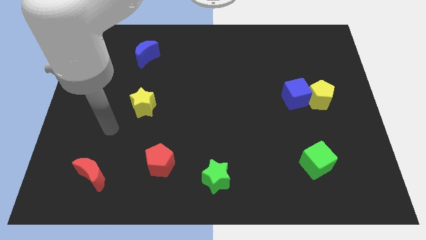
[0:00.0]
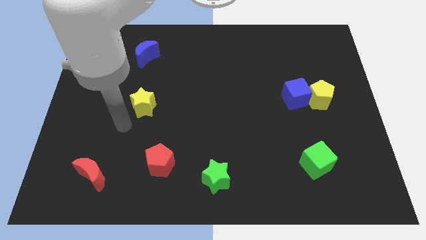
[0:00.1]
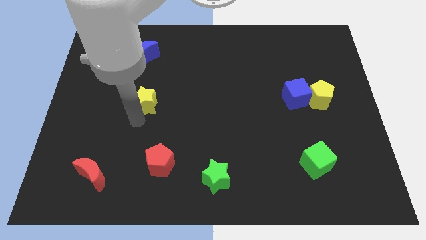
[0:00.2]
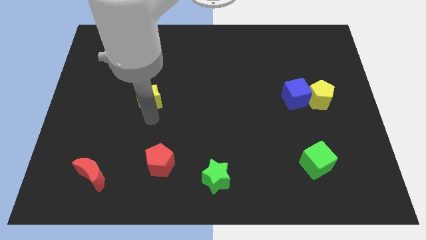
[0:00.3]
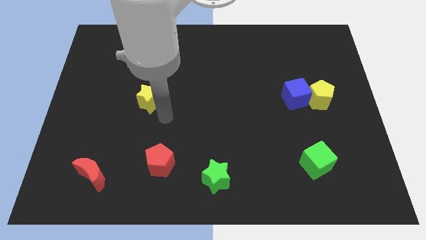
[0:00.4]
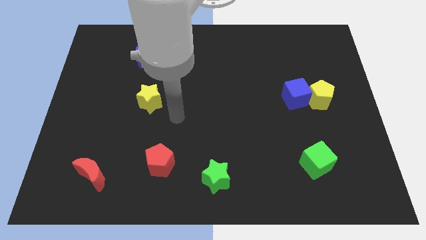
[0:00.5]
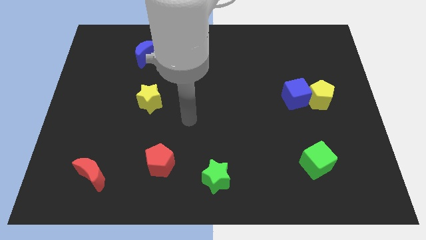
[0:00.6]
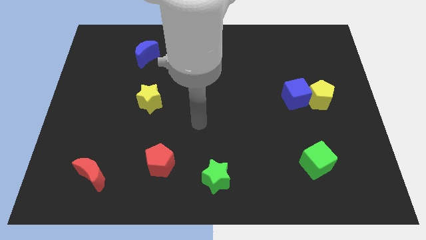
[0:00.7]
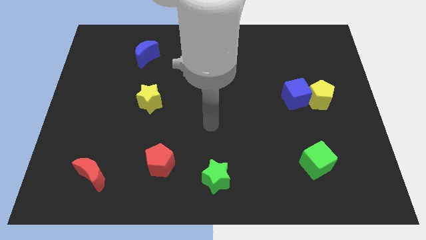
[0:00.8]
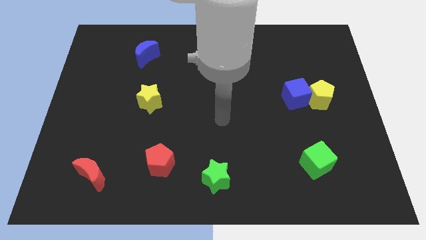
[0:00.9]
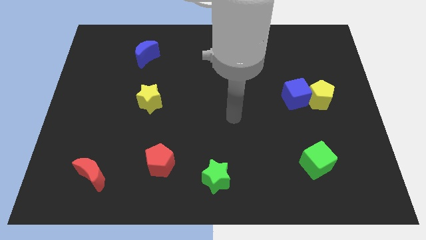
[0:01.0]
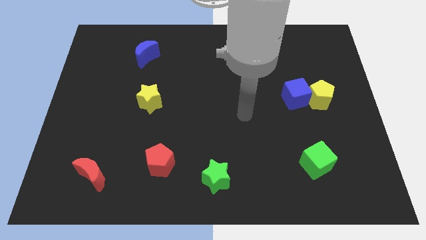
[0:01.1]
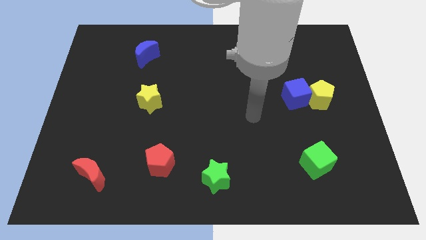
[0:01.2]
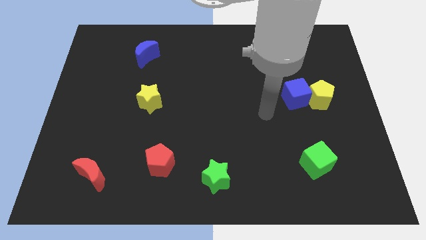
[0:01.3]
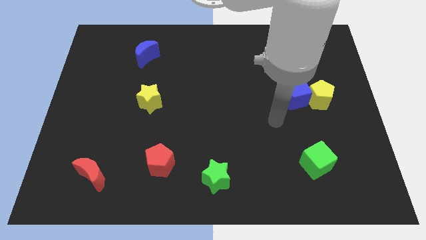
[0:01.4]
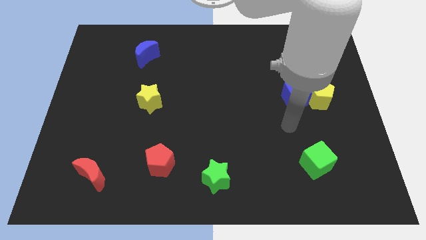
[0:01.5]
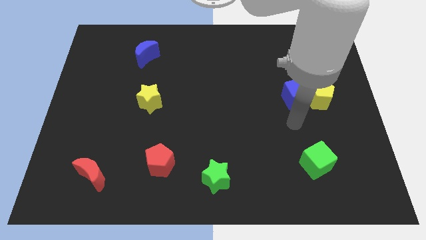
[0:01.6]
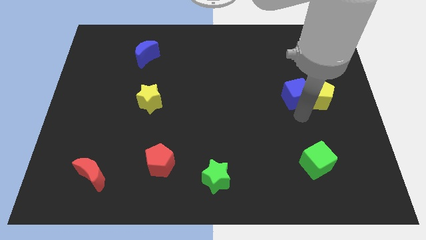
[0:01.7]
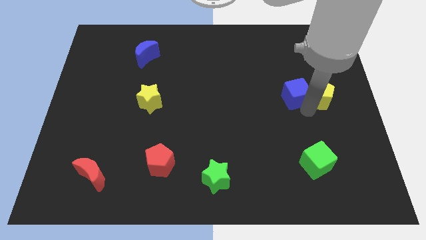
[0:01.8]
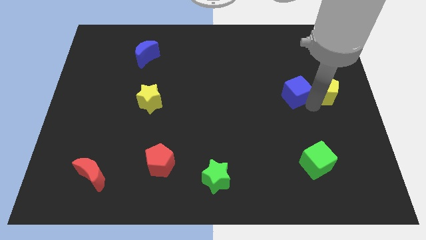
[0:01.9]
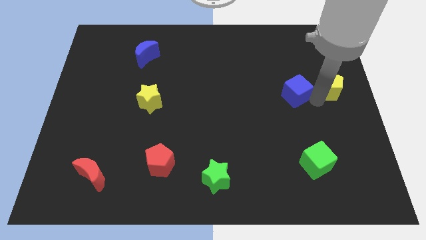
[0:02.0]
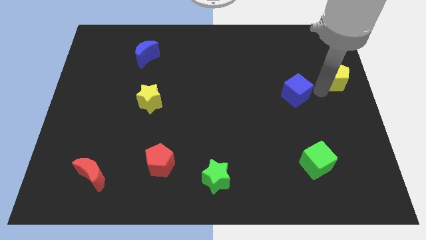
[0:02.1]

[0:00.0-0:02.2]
move the blue cube away from the yellow pentagon

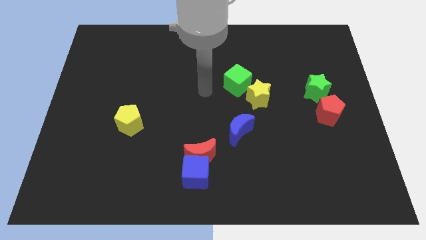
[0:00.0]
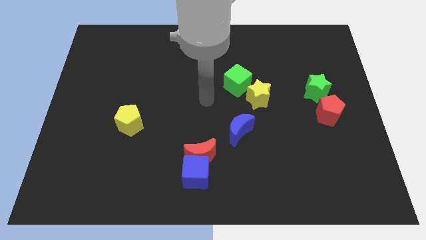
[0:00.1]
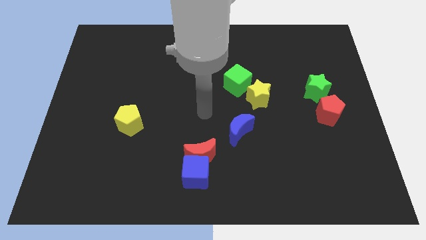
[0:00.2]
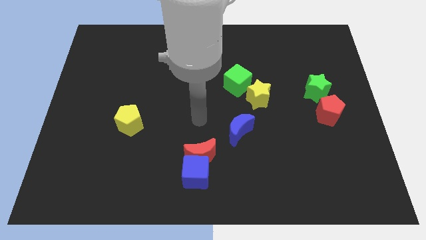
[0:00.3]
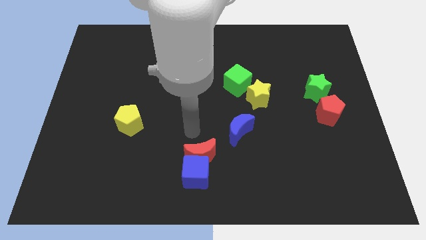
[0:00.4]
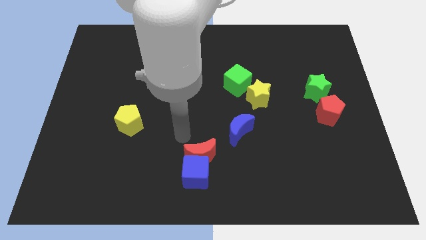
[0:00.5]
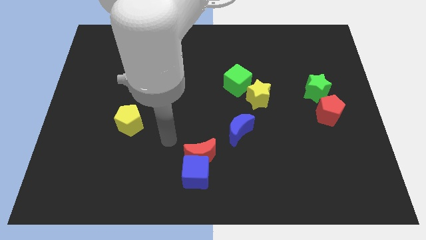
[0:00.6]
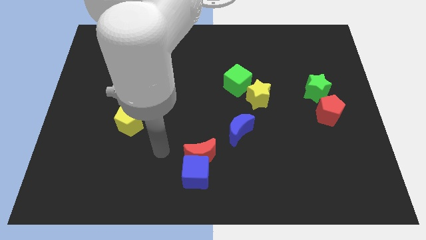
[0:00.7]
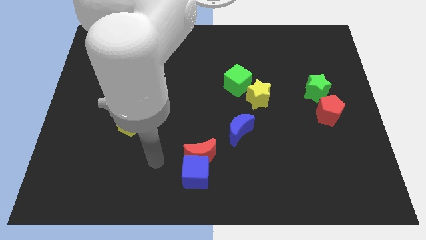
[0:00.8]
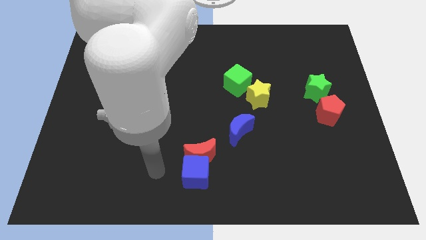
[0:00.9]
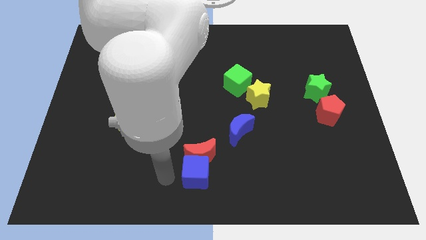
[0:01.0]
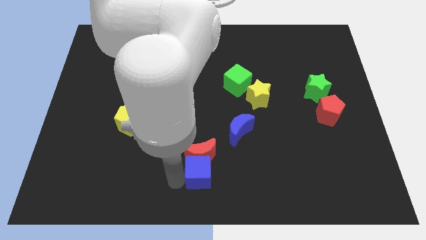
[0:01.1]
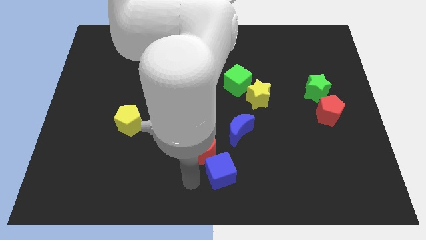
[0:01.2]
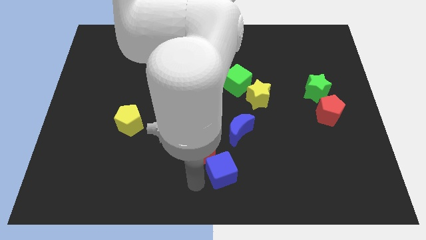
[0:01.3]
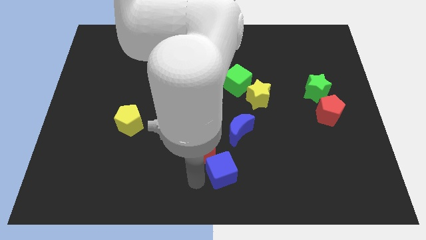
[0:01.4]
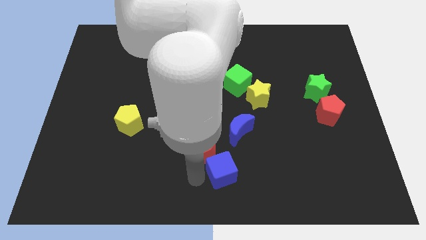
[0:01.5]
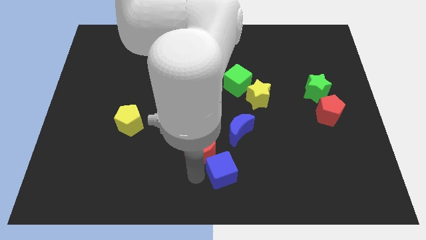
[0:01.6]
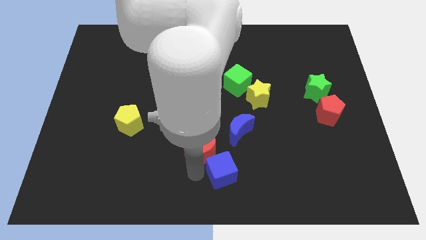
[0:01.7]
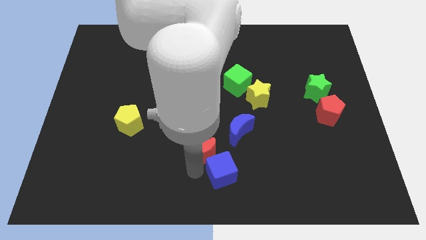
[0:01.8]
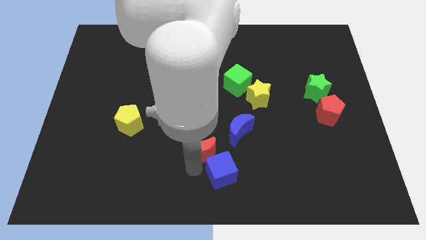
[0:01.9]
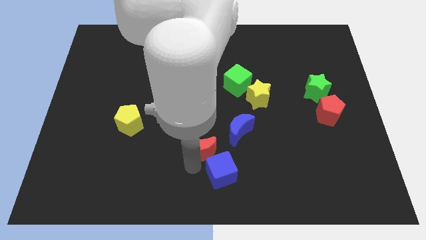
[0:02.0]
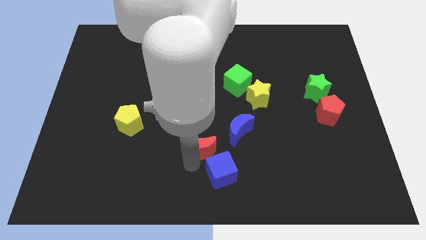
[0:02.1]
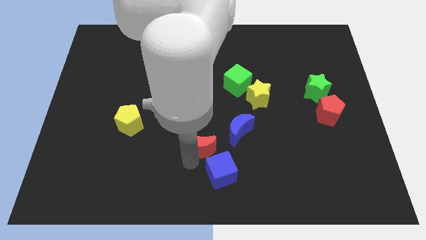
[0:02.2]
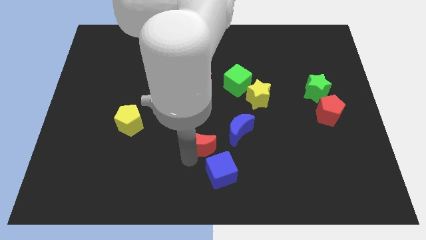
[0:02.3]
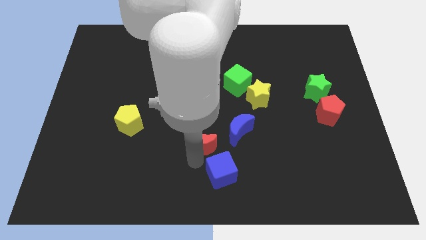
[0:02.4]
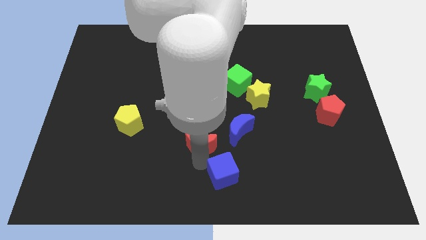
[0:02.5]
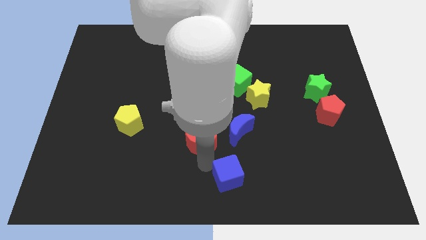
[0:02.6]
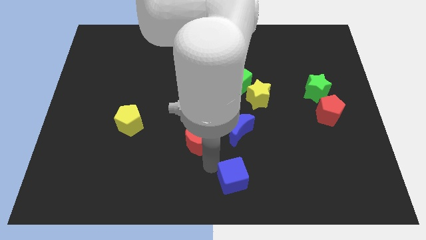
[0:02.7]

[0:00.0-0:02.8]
move the red moon away from the blue cube

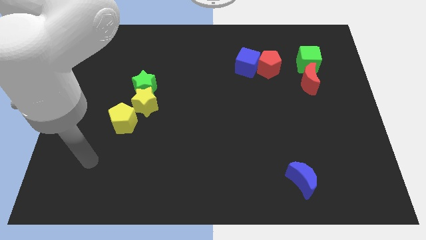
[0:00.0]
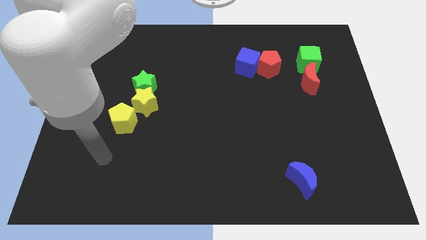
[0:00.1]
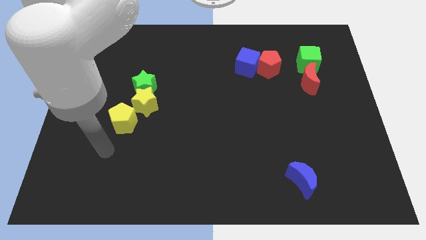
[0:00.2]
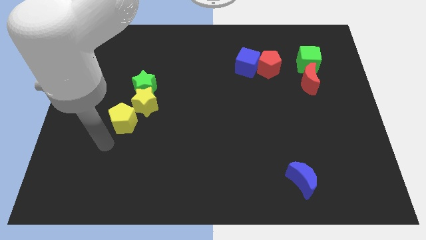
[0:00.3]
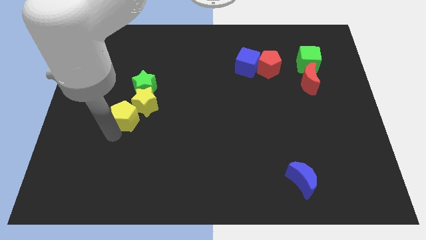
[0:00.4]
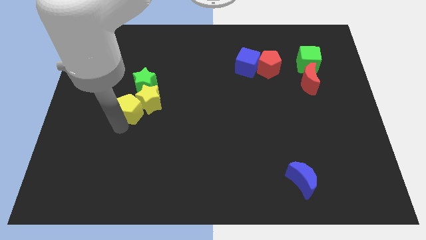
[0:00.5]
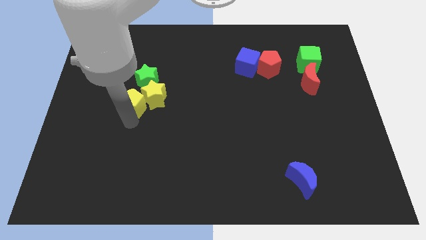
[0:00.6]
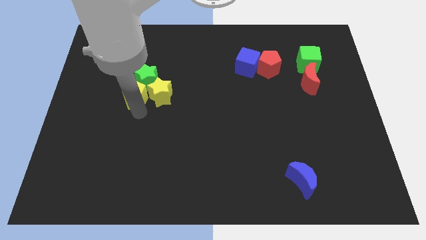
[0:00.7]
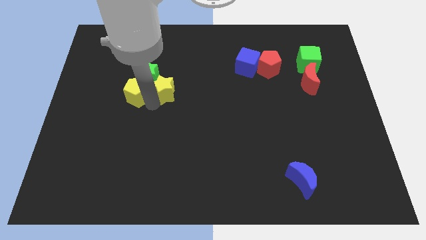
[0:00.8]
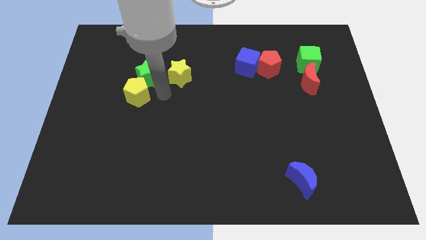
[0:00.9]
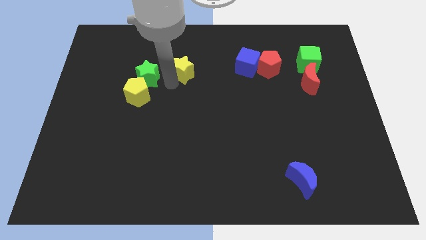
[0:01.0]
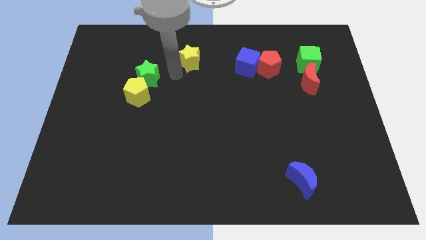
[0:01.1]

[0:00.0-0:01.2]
separate the green star from the yellow star

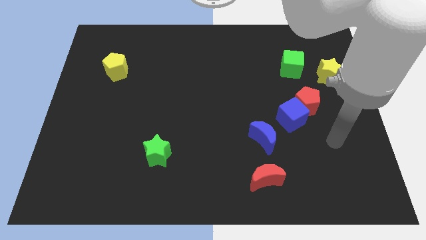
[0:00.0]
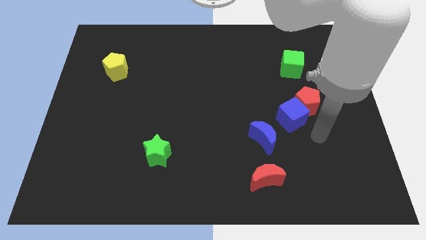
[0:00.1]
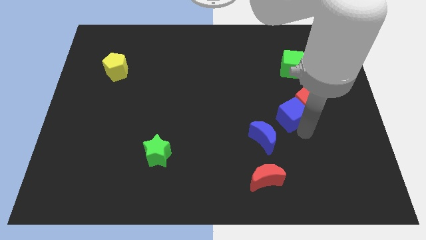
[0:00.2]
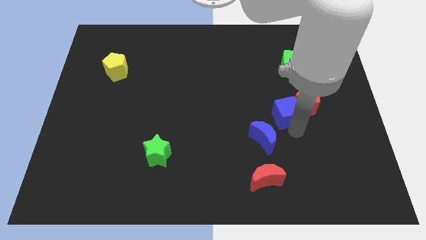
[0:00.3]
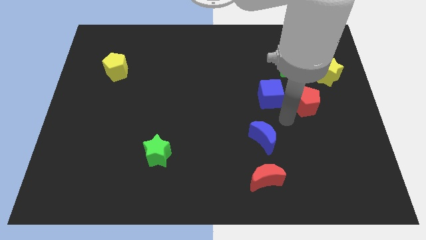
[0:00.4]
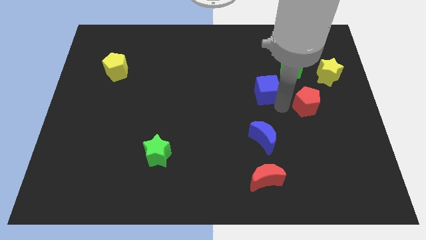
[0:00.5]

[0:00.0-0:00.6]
separate the red pentagon from the blue cube

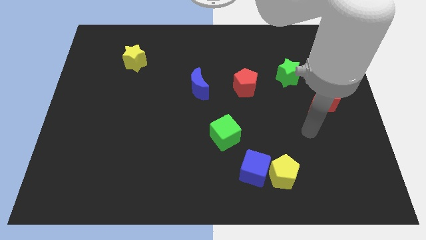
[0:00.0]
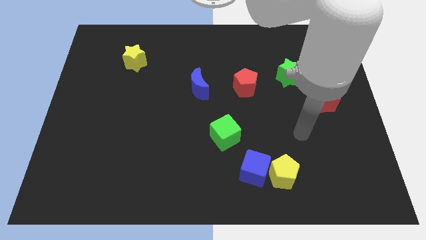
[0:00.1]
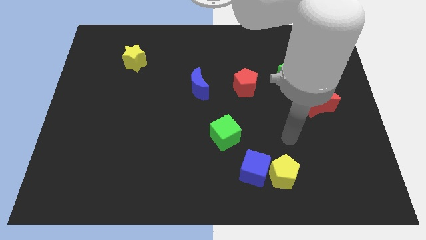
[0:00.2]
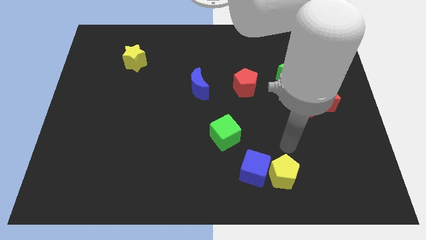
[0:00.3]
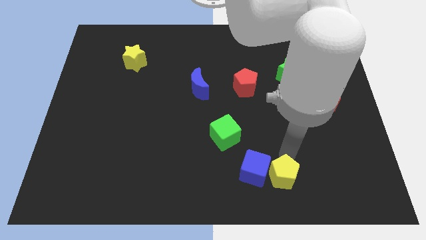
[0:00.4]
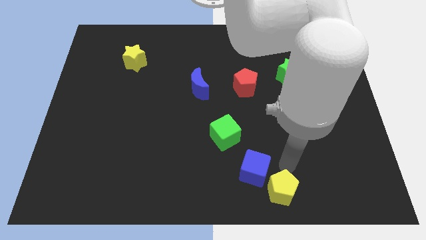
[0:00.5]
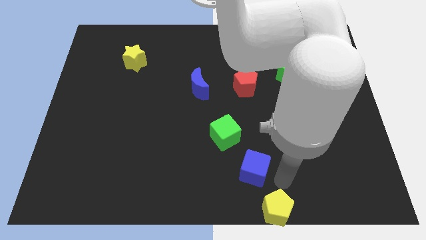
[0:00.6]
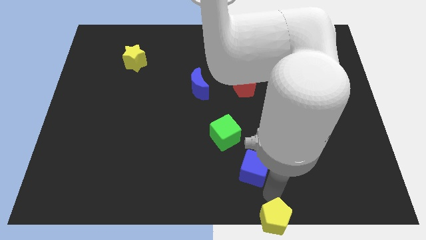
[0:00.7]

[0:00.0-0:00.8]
pull the blue cube apart from the yellow pentagon

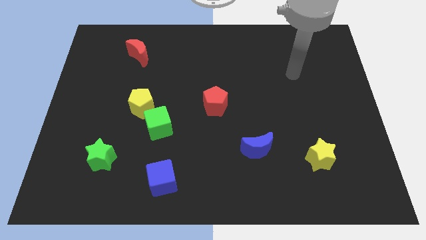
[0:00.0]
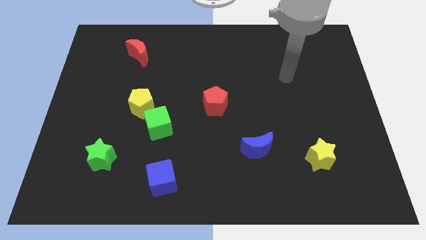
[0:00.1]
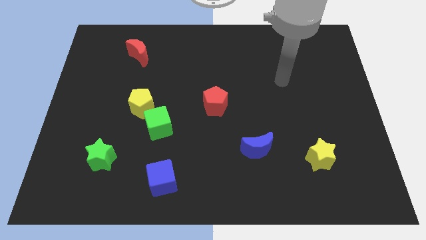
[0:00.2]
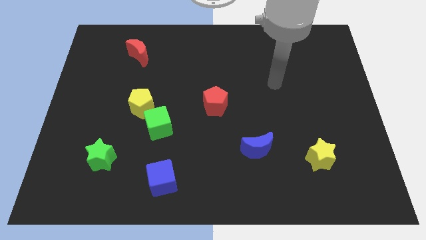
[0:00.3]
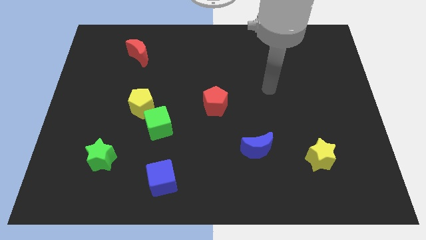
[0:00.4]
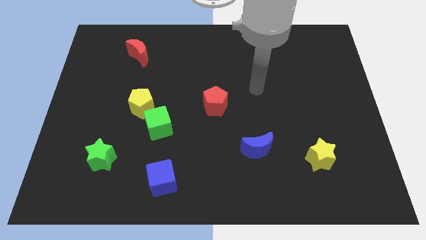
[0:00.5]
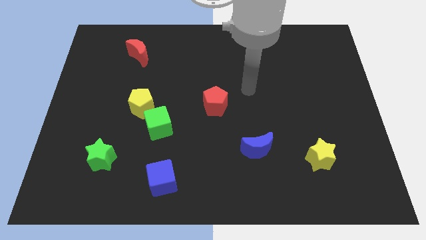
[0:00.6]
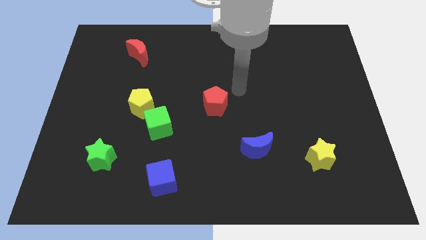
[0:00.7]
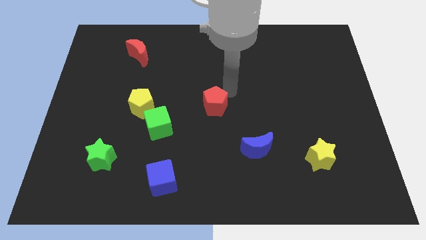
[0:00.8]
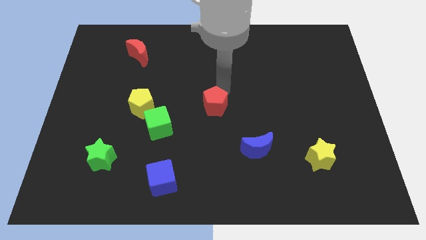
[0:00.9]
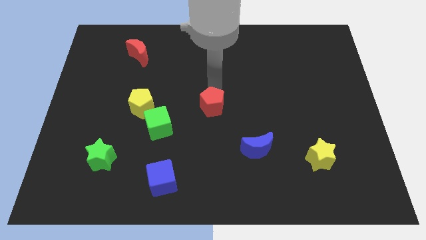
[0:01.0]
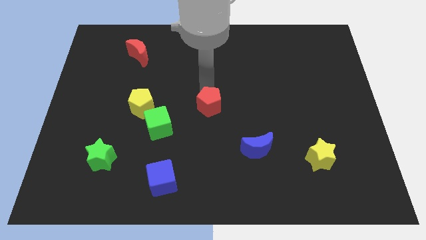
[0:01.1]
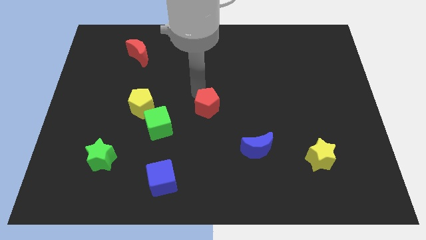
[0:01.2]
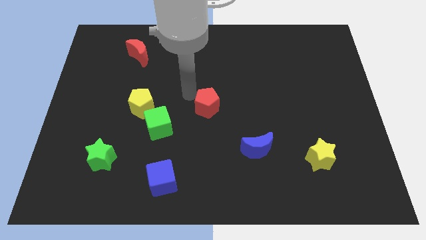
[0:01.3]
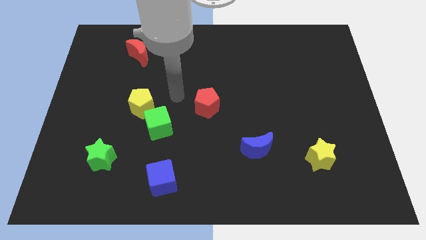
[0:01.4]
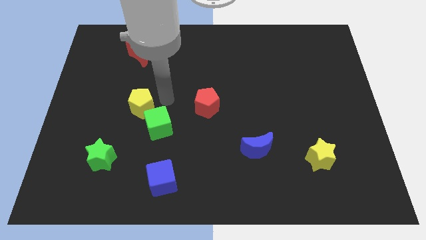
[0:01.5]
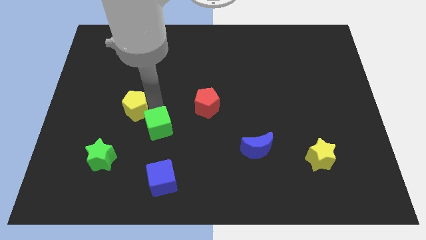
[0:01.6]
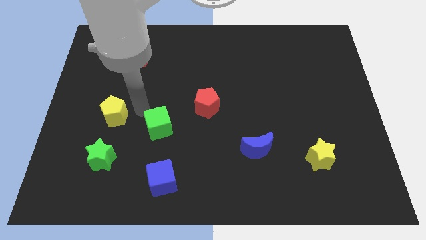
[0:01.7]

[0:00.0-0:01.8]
separate the green cube from the yellow pentagon
